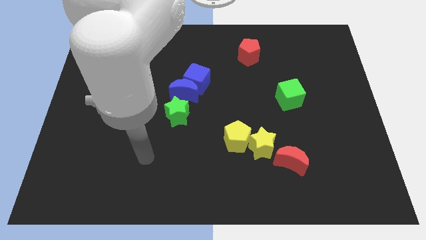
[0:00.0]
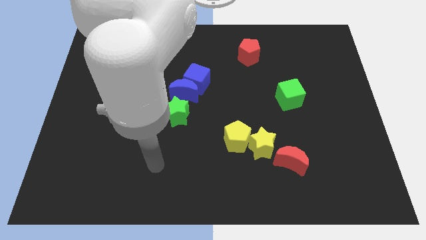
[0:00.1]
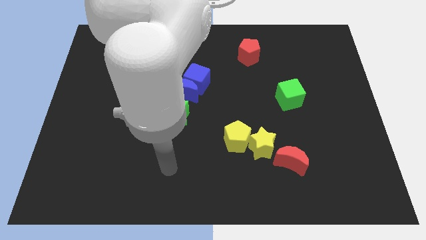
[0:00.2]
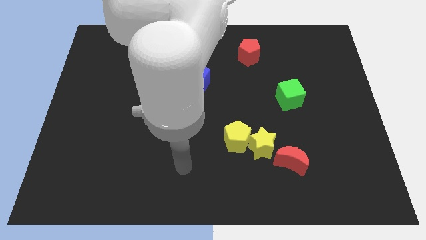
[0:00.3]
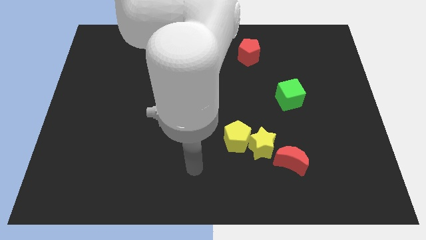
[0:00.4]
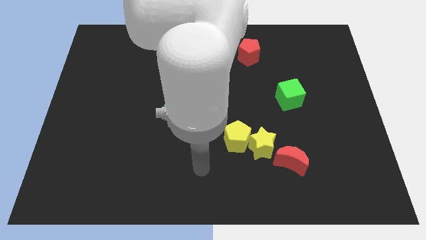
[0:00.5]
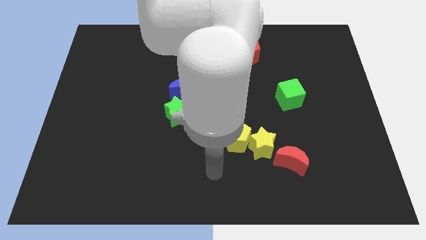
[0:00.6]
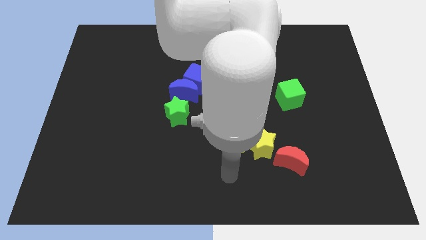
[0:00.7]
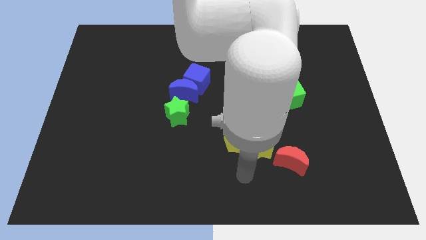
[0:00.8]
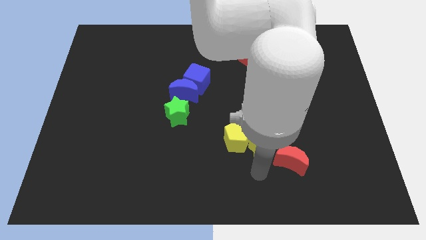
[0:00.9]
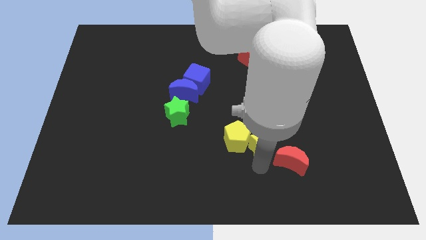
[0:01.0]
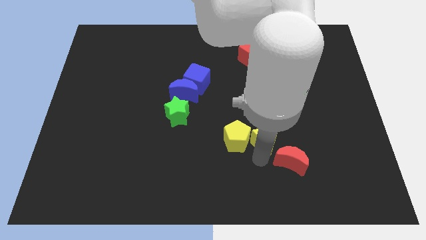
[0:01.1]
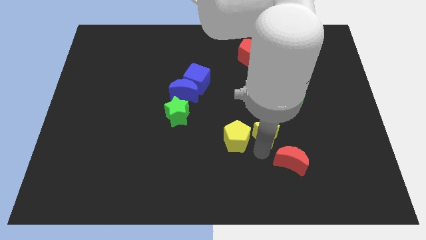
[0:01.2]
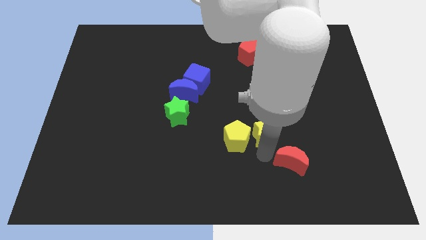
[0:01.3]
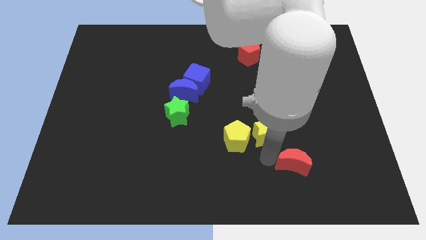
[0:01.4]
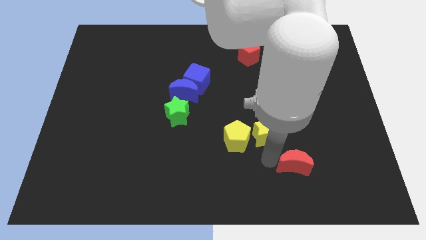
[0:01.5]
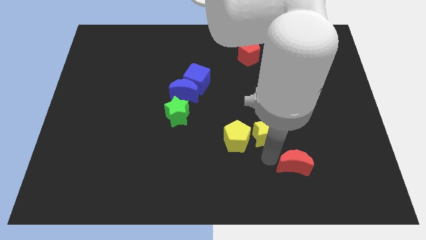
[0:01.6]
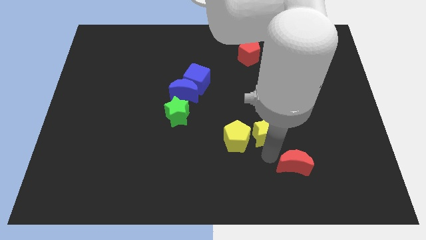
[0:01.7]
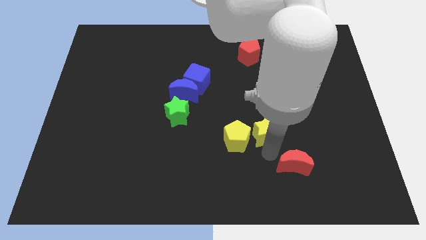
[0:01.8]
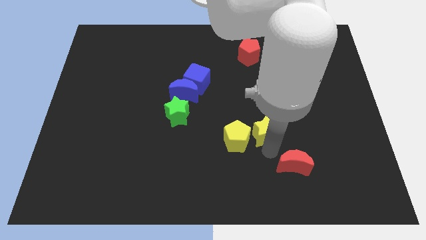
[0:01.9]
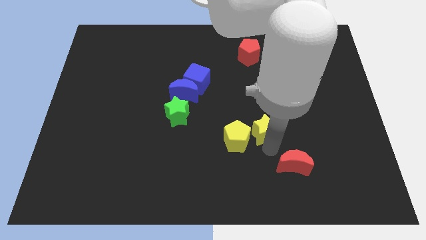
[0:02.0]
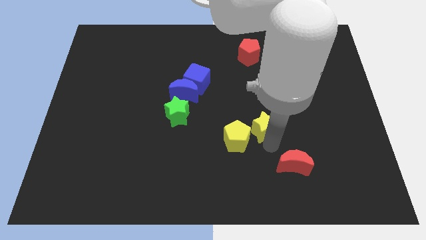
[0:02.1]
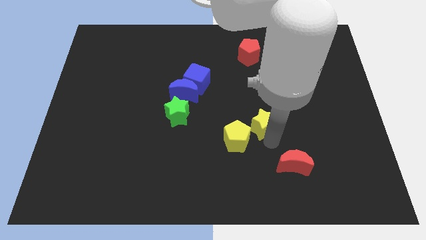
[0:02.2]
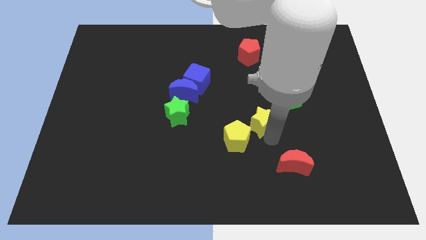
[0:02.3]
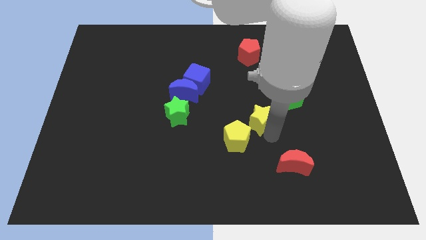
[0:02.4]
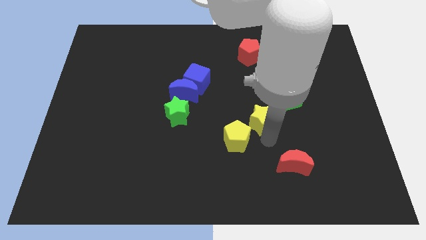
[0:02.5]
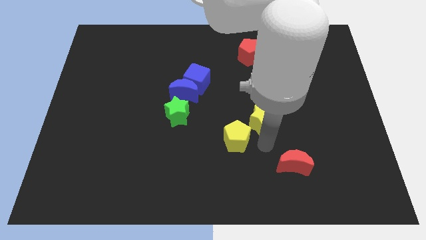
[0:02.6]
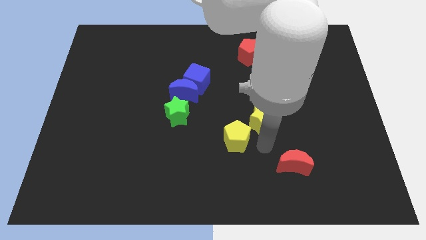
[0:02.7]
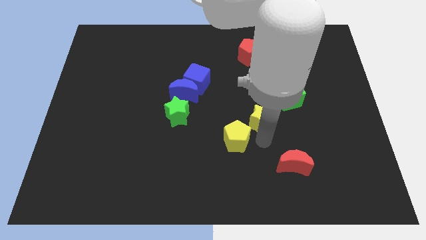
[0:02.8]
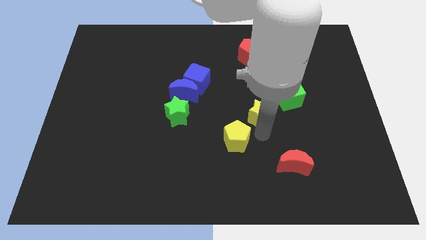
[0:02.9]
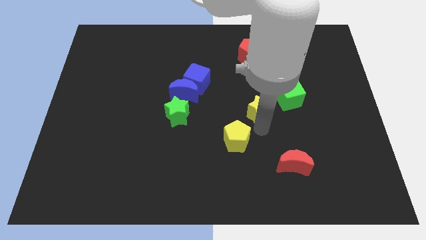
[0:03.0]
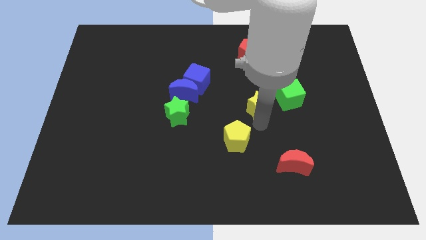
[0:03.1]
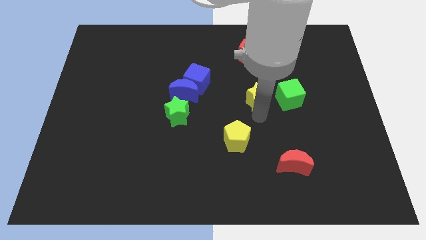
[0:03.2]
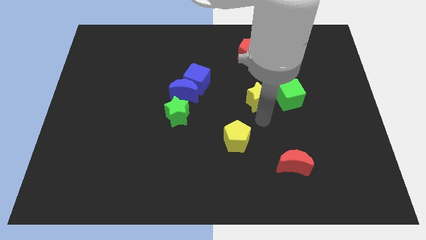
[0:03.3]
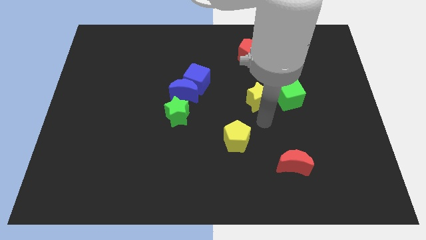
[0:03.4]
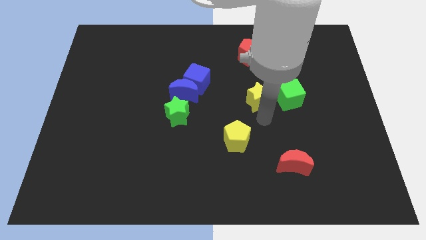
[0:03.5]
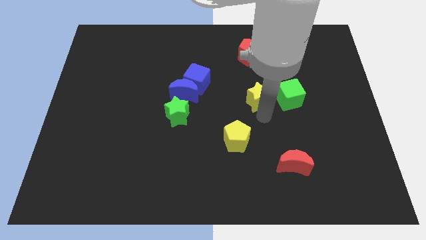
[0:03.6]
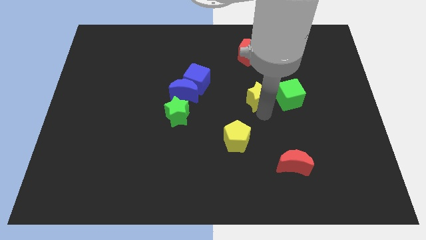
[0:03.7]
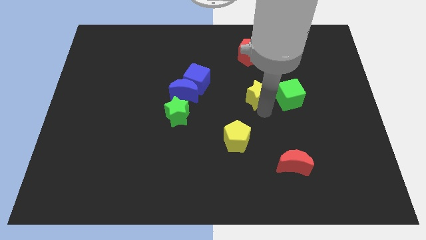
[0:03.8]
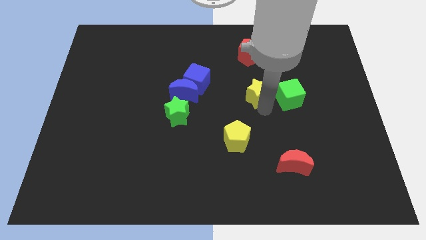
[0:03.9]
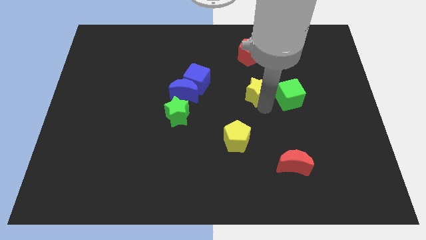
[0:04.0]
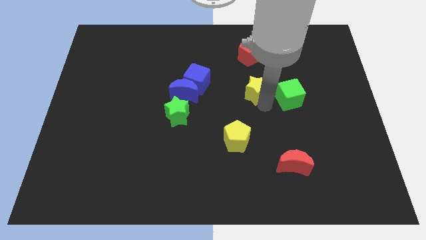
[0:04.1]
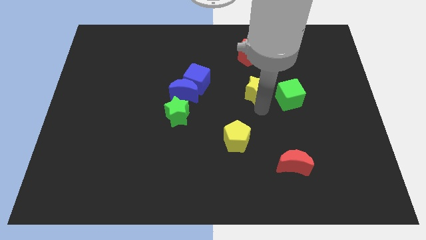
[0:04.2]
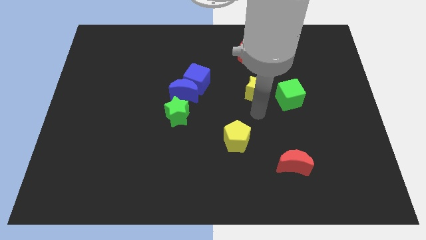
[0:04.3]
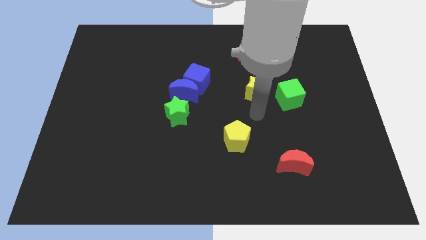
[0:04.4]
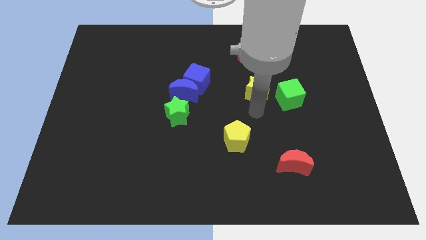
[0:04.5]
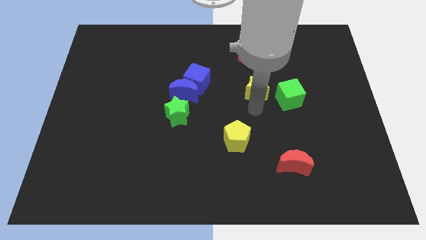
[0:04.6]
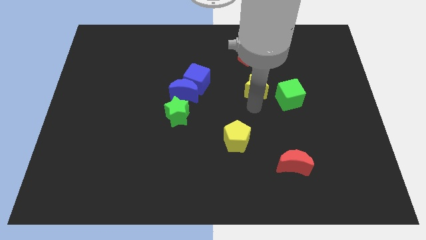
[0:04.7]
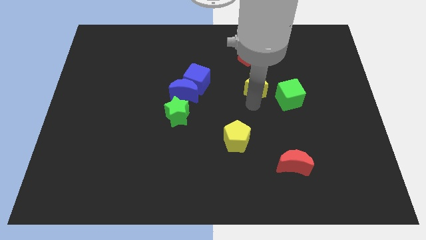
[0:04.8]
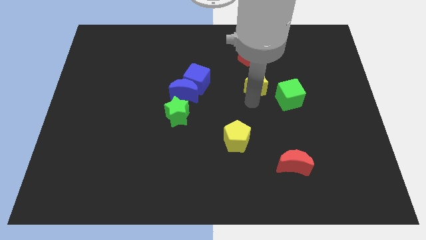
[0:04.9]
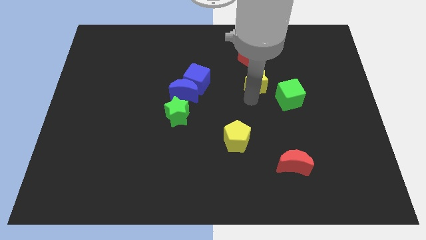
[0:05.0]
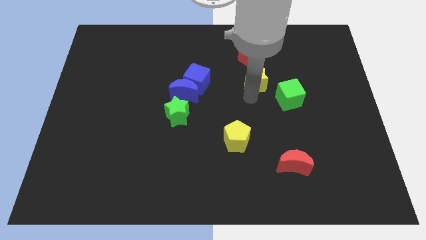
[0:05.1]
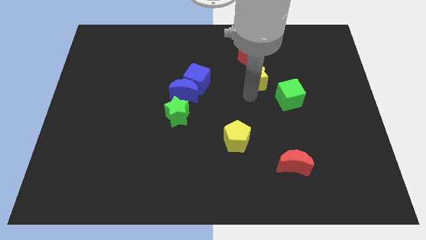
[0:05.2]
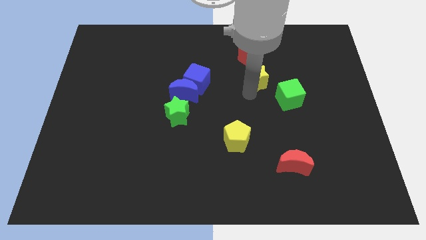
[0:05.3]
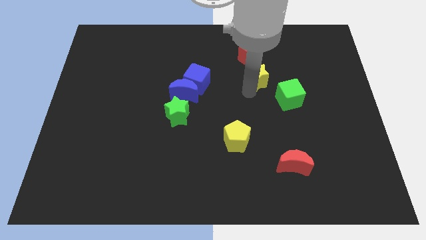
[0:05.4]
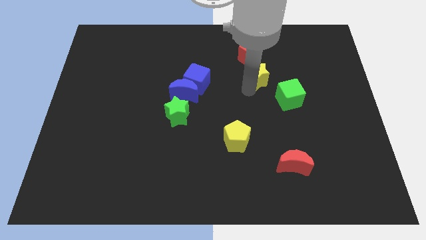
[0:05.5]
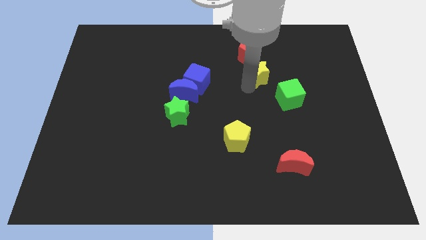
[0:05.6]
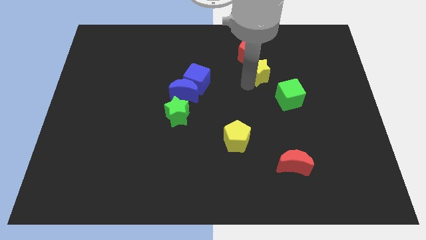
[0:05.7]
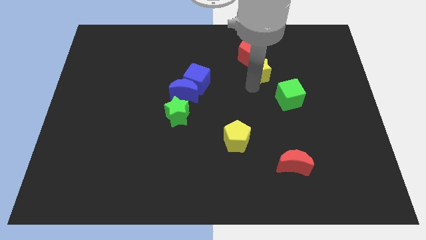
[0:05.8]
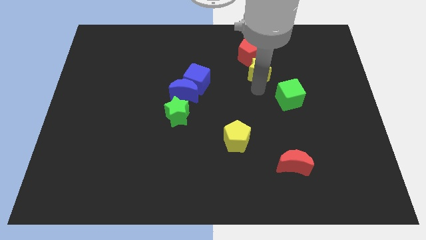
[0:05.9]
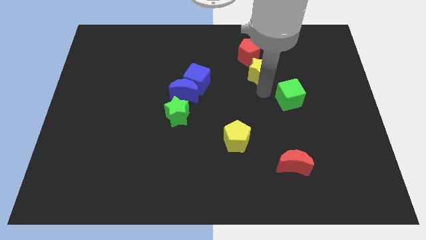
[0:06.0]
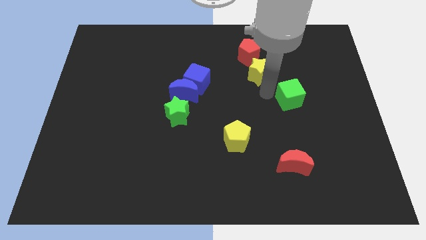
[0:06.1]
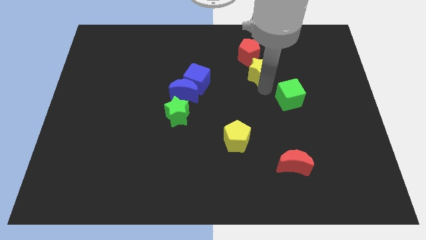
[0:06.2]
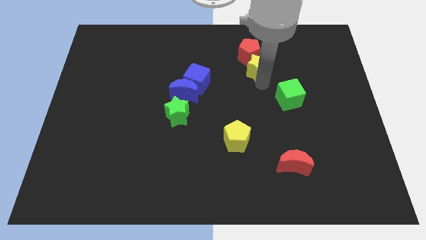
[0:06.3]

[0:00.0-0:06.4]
push the yellow star towards the red pentagon
